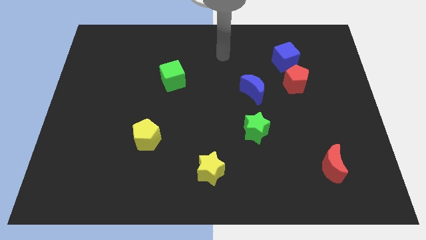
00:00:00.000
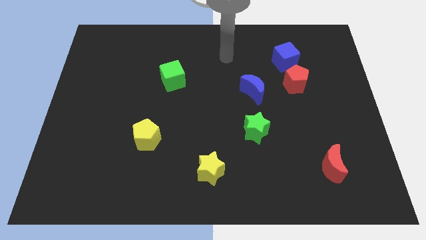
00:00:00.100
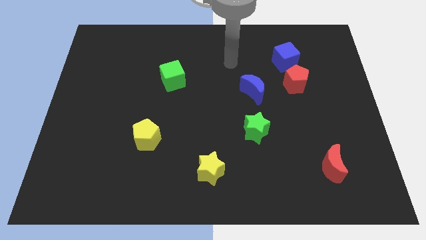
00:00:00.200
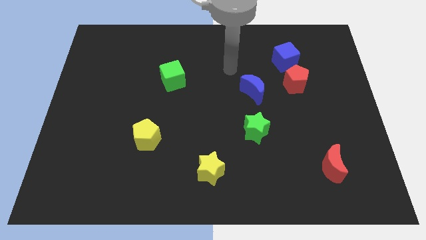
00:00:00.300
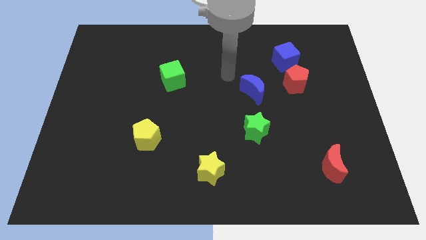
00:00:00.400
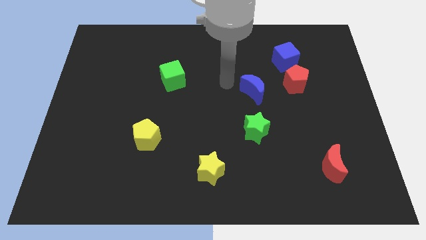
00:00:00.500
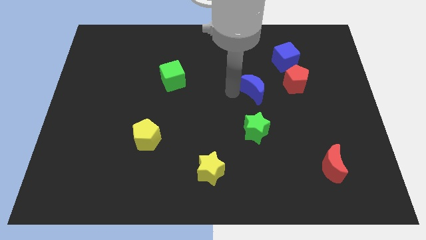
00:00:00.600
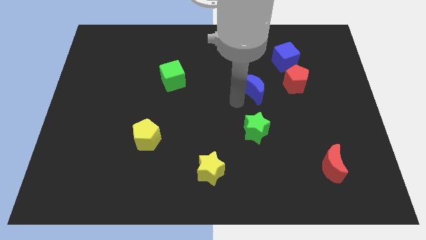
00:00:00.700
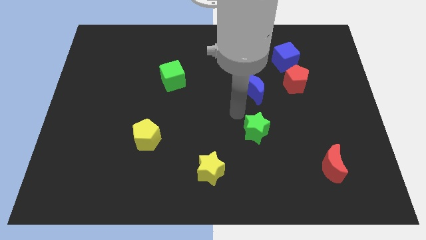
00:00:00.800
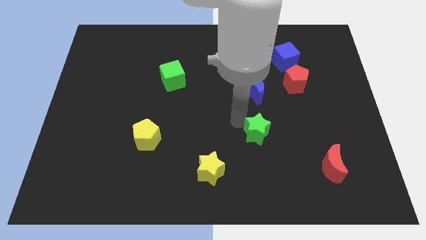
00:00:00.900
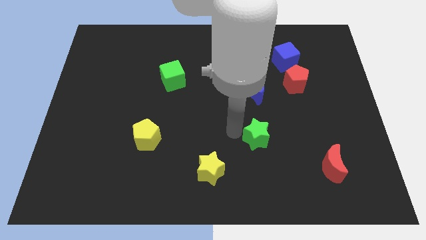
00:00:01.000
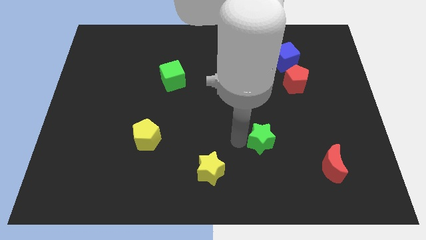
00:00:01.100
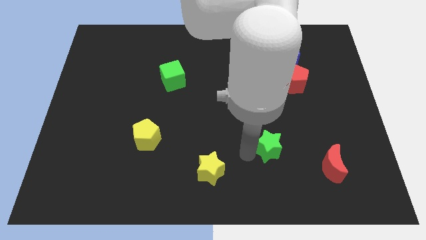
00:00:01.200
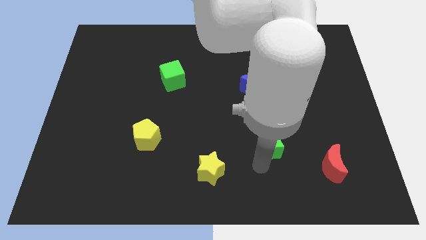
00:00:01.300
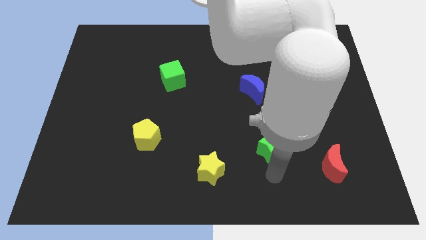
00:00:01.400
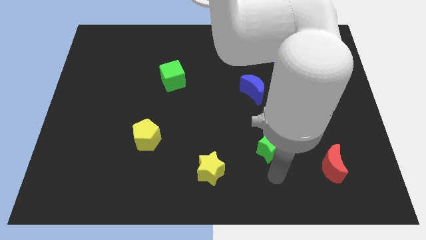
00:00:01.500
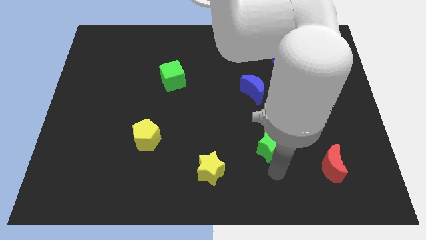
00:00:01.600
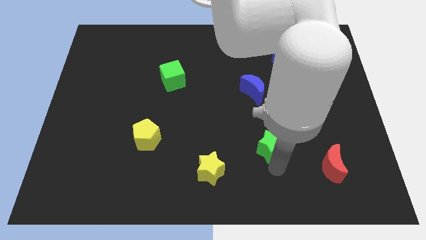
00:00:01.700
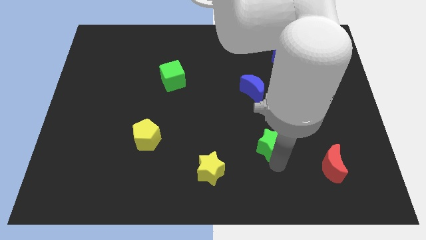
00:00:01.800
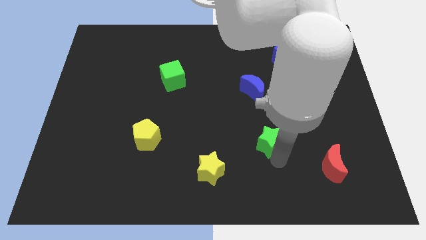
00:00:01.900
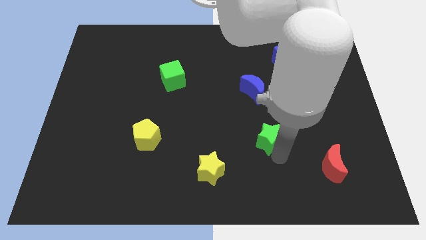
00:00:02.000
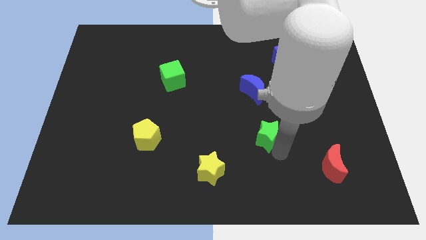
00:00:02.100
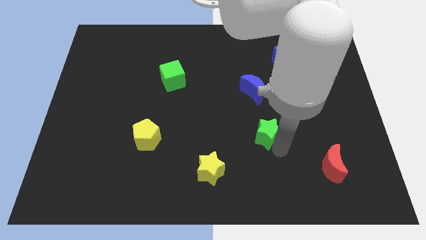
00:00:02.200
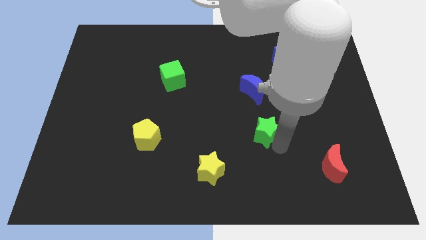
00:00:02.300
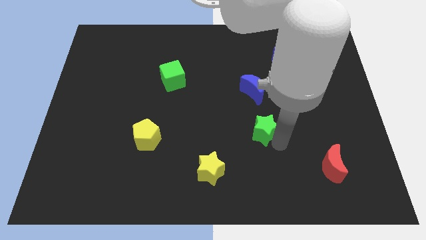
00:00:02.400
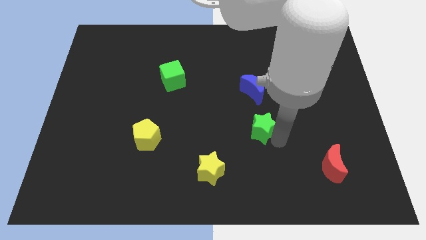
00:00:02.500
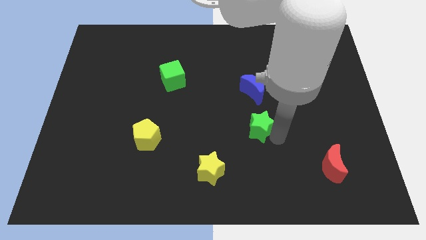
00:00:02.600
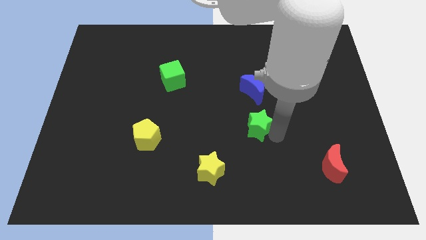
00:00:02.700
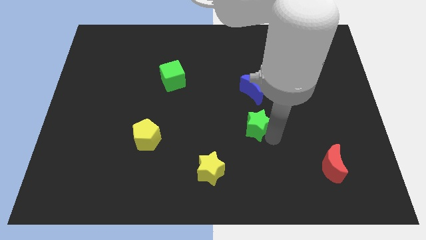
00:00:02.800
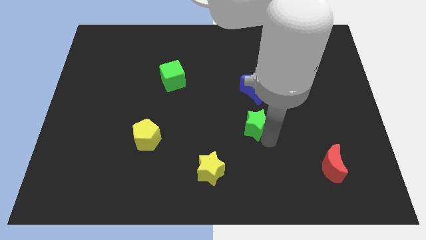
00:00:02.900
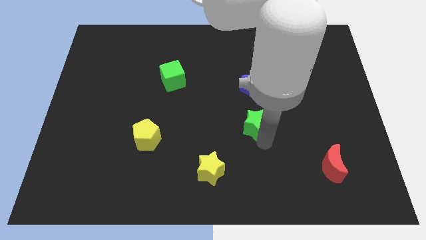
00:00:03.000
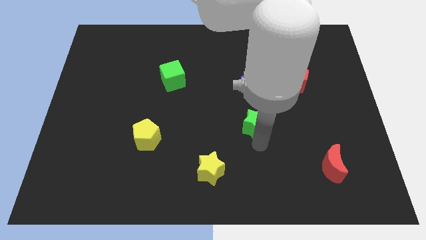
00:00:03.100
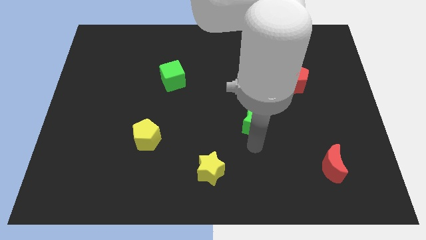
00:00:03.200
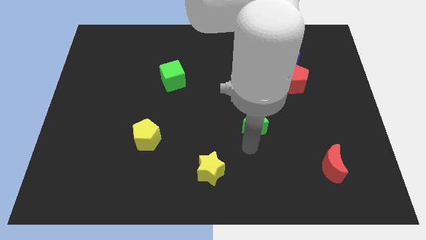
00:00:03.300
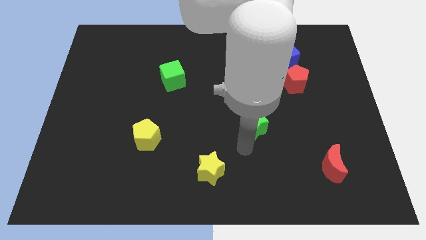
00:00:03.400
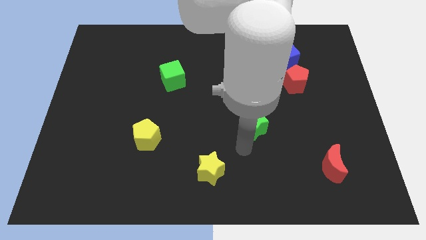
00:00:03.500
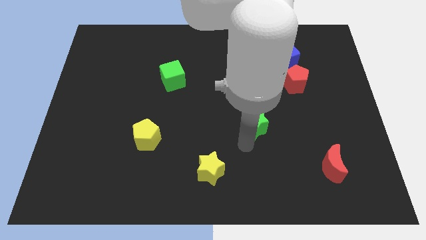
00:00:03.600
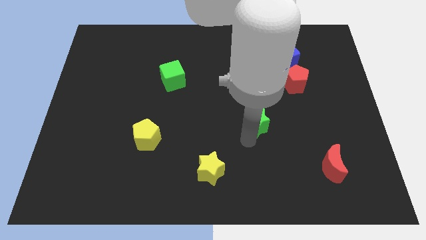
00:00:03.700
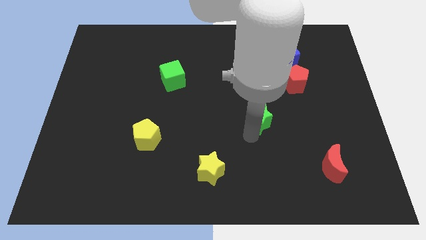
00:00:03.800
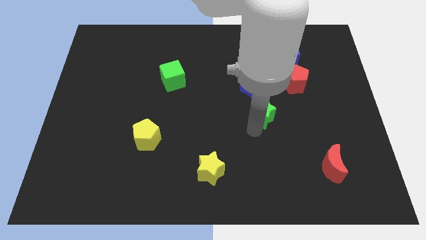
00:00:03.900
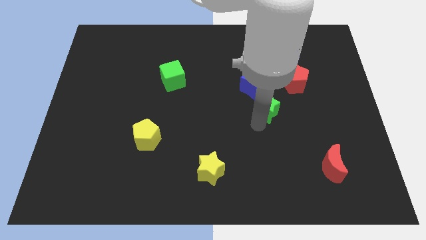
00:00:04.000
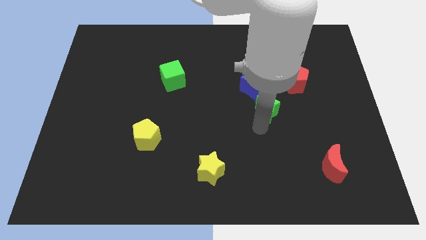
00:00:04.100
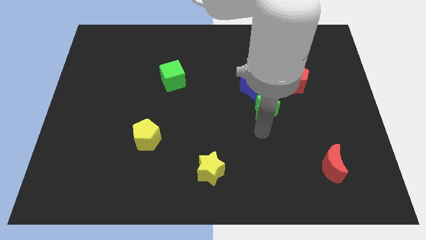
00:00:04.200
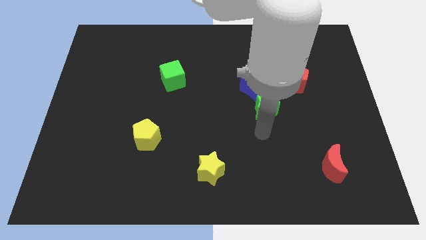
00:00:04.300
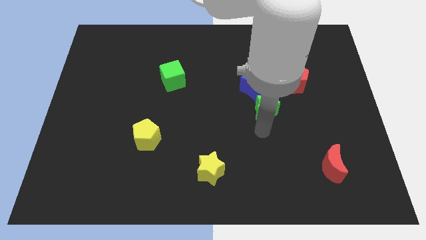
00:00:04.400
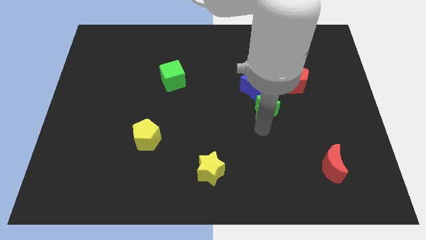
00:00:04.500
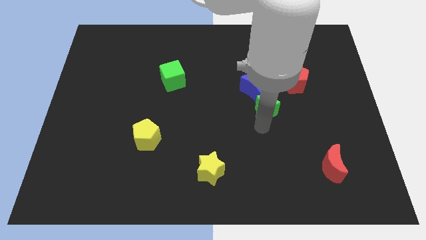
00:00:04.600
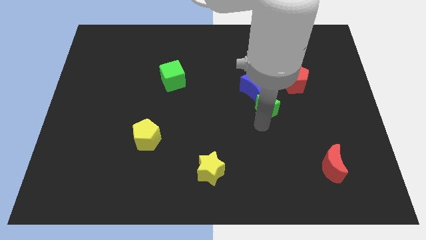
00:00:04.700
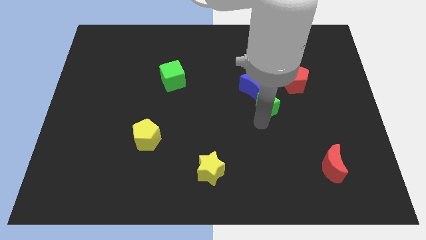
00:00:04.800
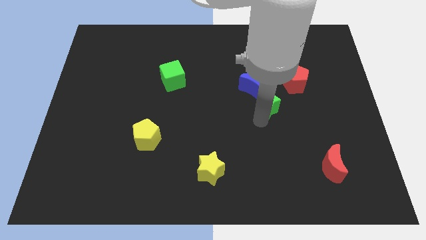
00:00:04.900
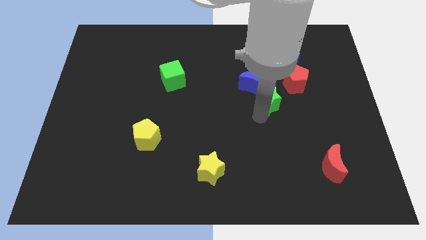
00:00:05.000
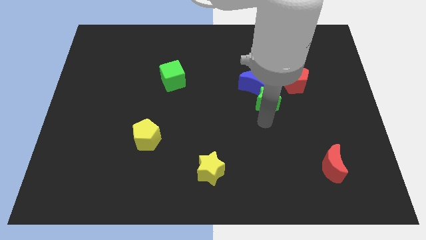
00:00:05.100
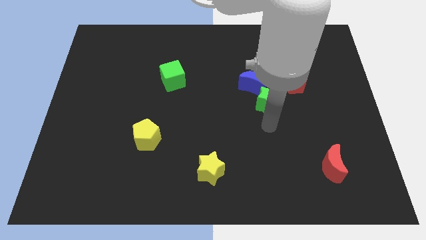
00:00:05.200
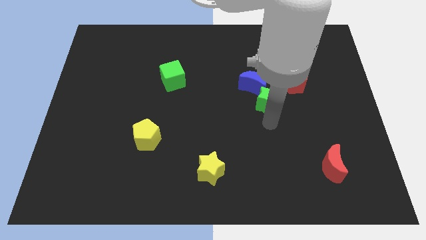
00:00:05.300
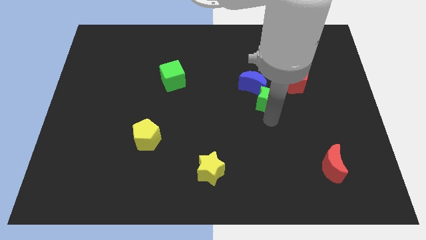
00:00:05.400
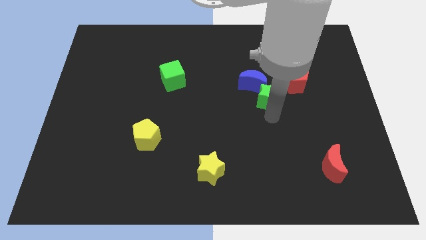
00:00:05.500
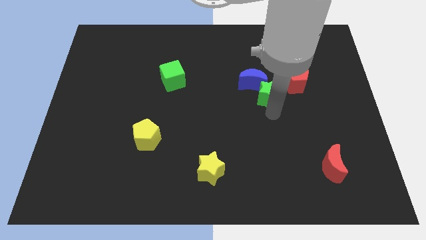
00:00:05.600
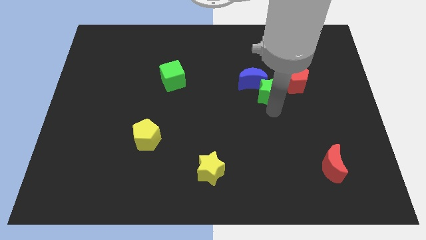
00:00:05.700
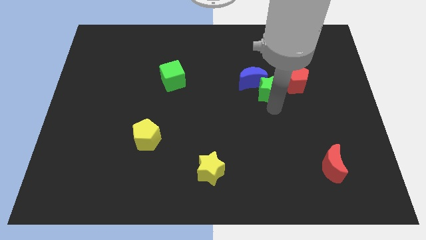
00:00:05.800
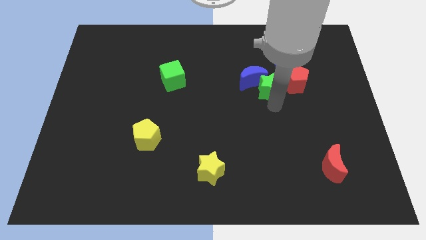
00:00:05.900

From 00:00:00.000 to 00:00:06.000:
move the green star to the bottom left of the blue cube

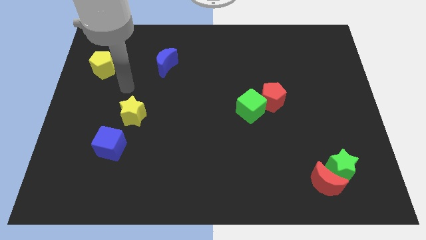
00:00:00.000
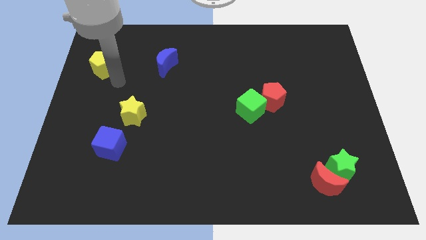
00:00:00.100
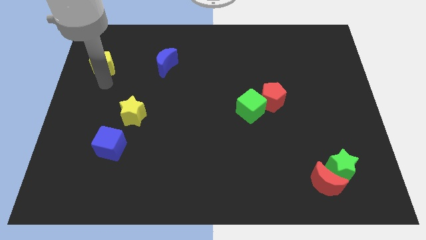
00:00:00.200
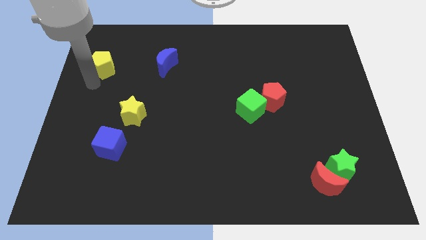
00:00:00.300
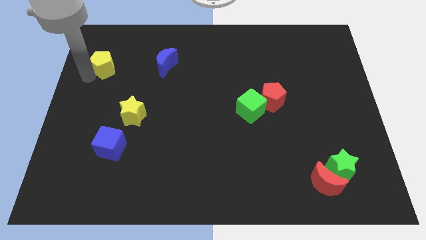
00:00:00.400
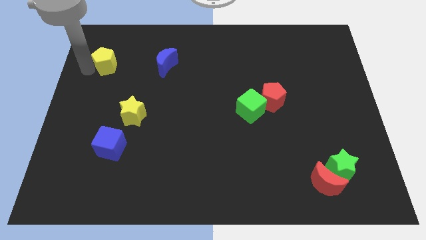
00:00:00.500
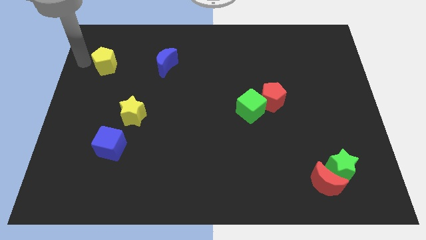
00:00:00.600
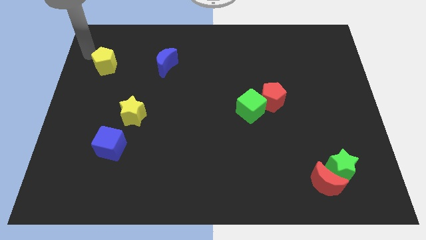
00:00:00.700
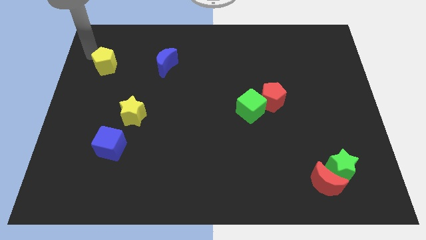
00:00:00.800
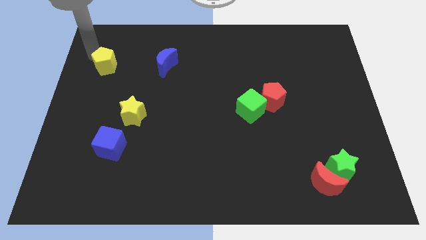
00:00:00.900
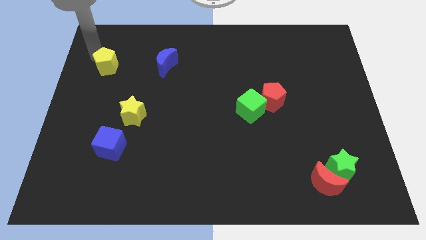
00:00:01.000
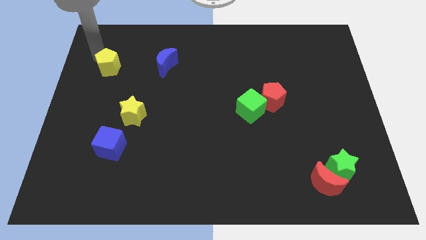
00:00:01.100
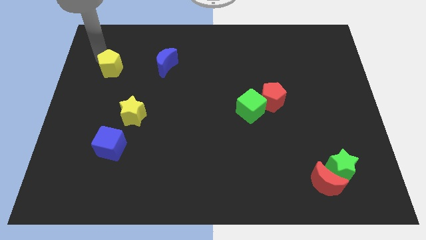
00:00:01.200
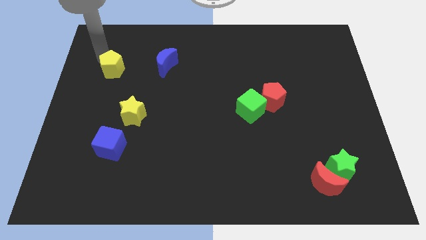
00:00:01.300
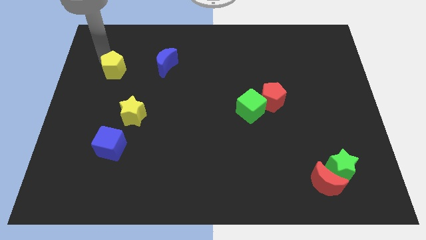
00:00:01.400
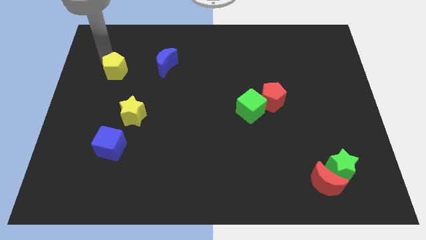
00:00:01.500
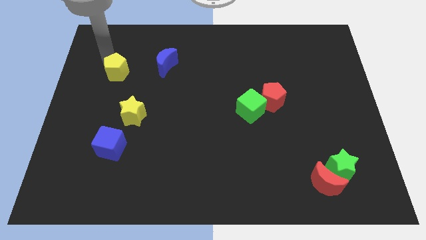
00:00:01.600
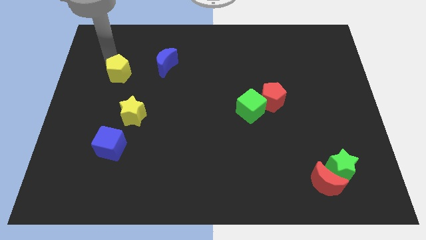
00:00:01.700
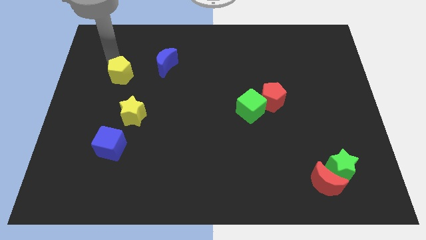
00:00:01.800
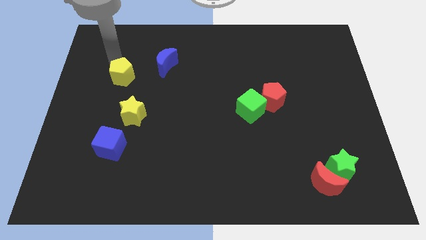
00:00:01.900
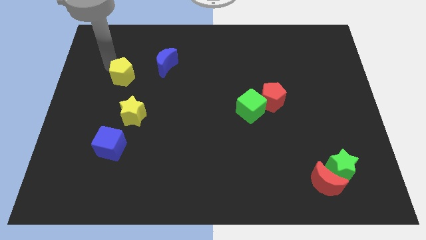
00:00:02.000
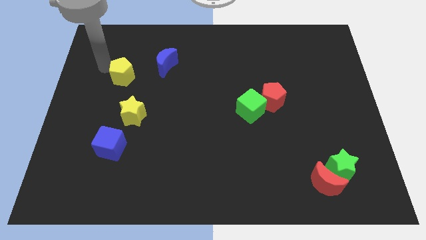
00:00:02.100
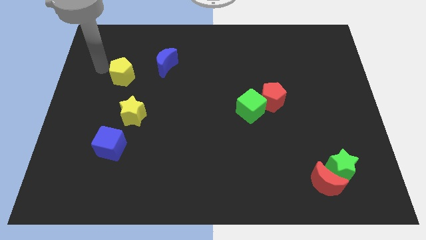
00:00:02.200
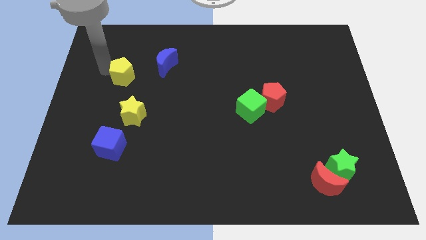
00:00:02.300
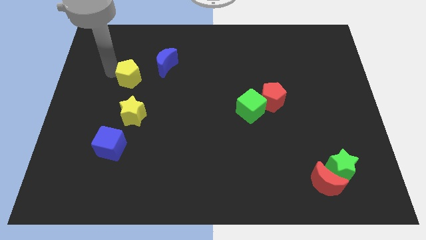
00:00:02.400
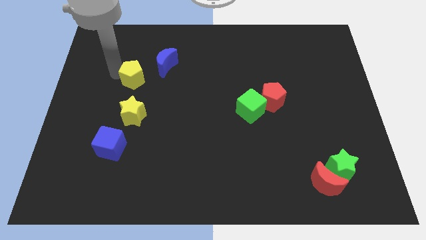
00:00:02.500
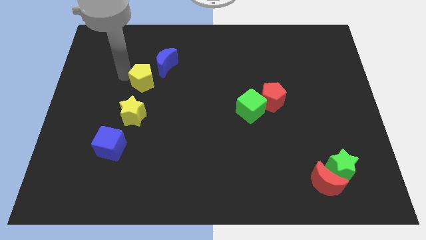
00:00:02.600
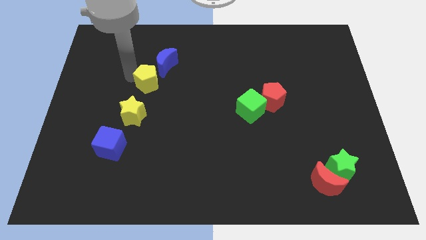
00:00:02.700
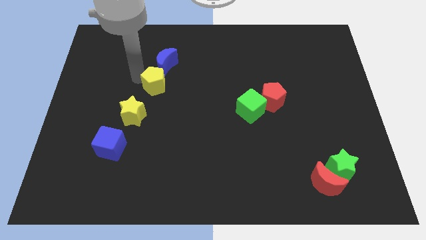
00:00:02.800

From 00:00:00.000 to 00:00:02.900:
put the yellow pentagon to the top right side of the yellow star
